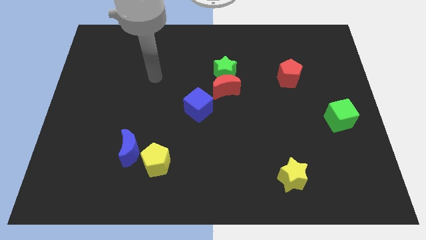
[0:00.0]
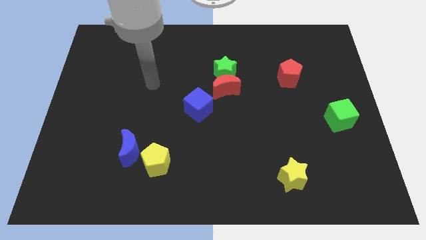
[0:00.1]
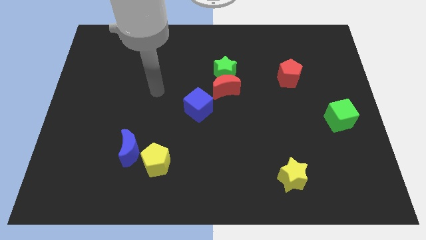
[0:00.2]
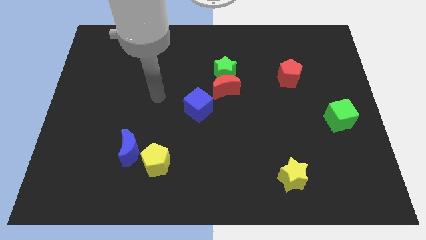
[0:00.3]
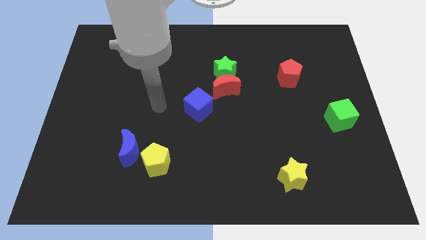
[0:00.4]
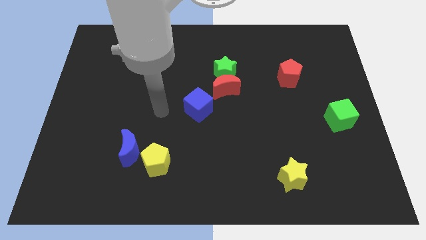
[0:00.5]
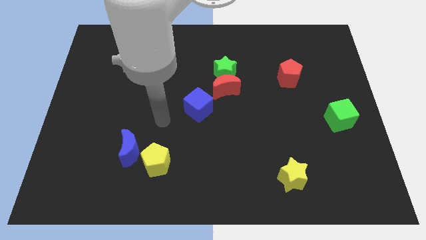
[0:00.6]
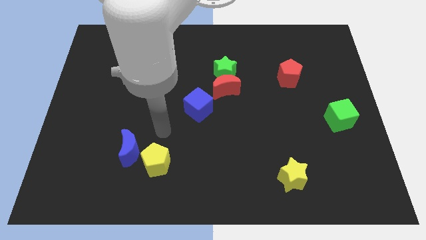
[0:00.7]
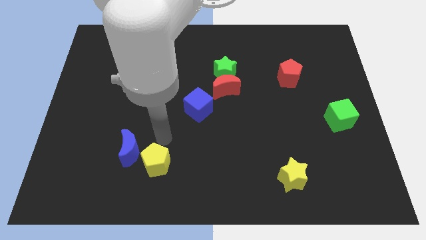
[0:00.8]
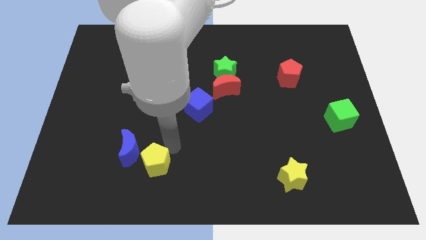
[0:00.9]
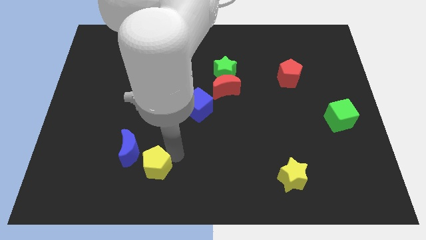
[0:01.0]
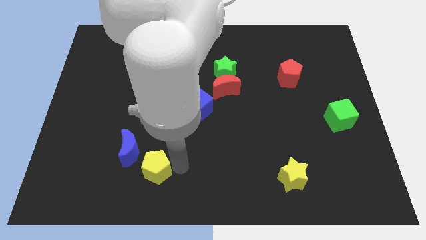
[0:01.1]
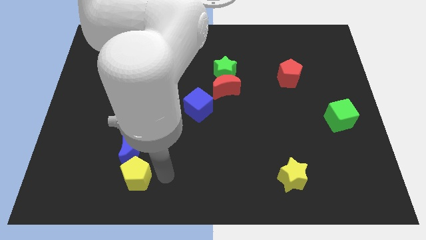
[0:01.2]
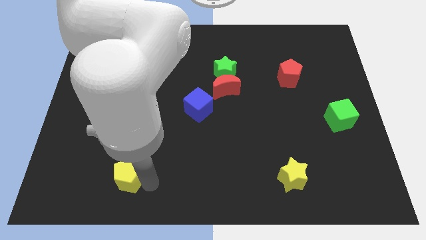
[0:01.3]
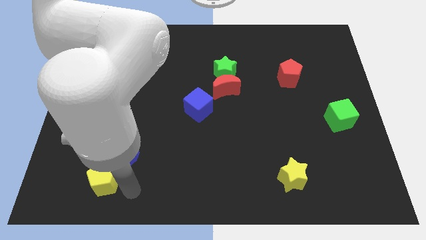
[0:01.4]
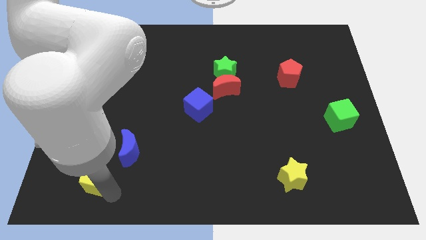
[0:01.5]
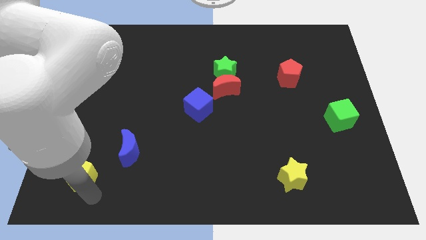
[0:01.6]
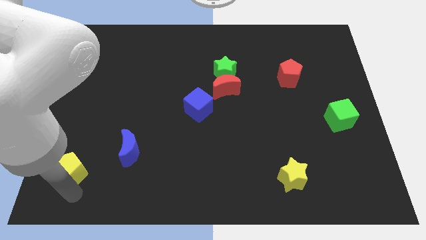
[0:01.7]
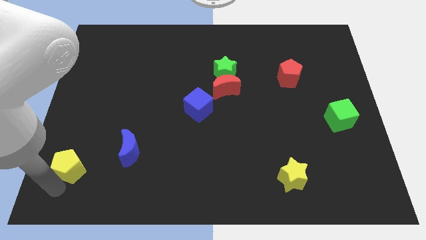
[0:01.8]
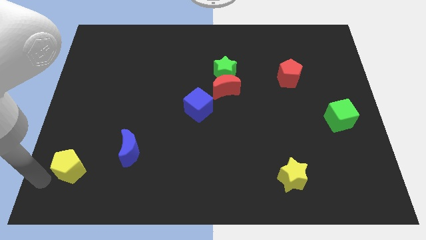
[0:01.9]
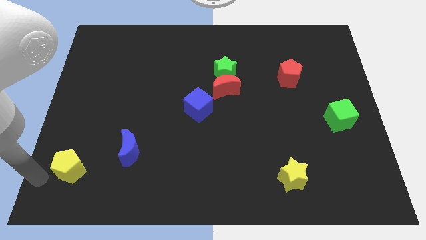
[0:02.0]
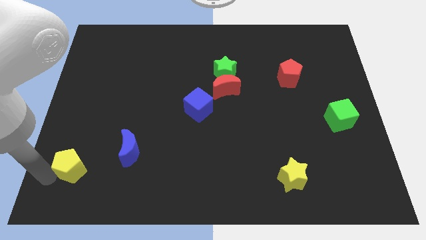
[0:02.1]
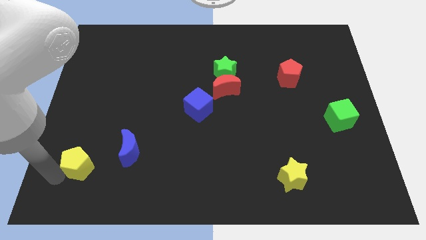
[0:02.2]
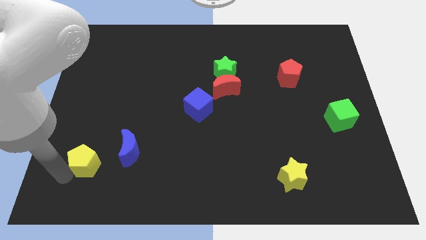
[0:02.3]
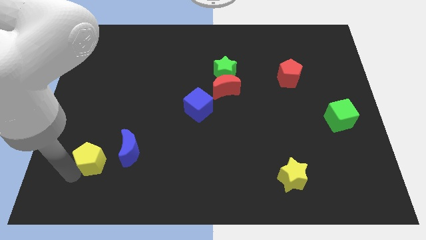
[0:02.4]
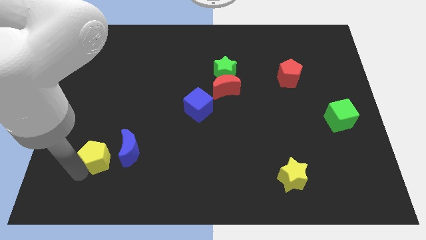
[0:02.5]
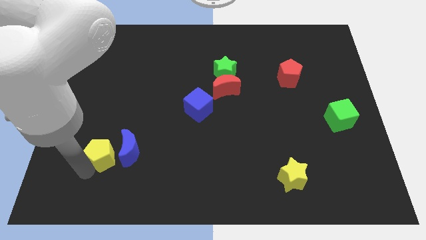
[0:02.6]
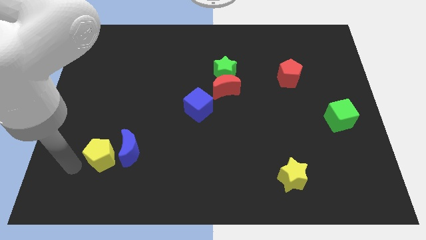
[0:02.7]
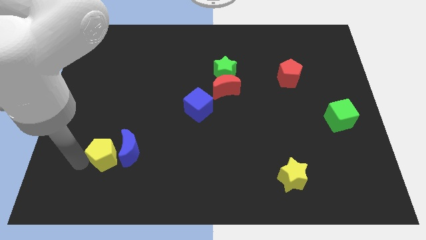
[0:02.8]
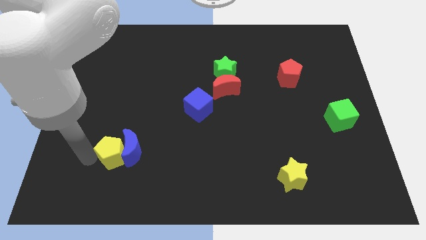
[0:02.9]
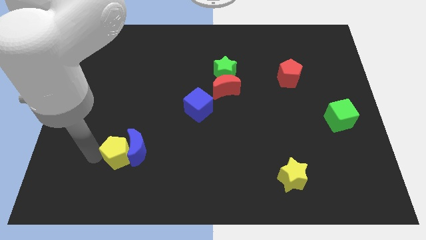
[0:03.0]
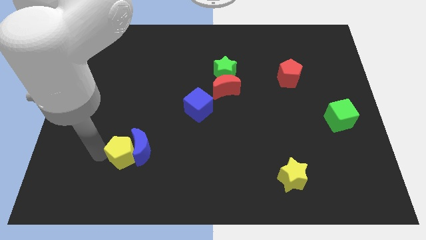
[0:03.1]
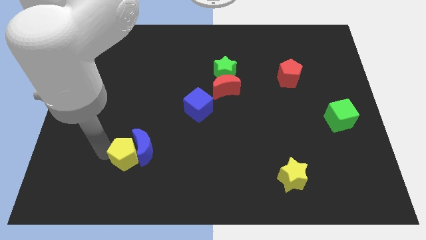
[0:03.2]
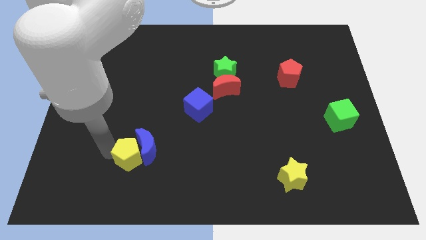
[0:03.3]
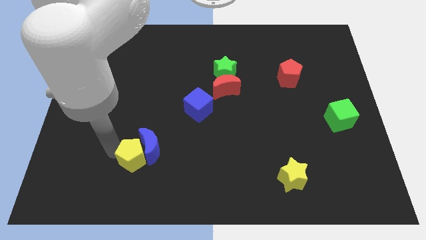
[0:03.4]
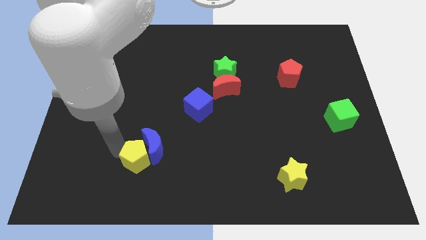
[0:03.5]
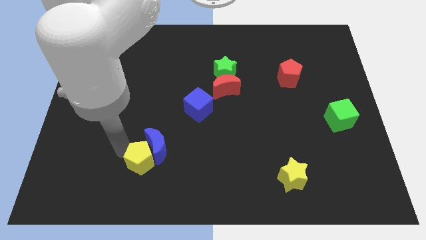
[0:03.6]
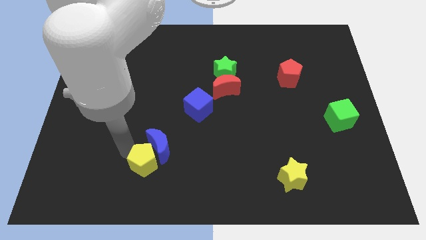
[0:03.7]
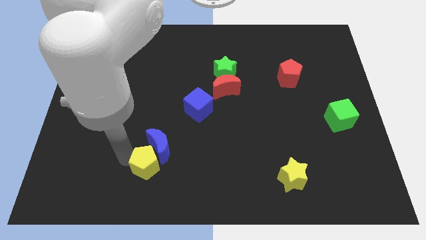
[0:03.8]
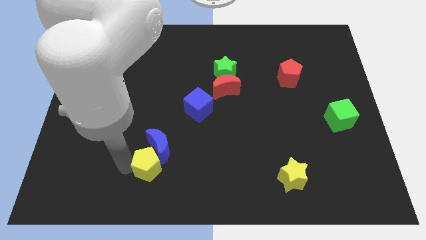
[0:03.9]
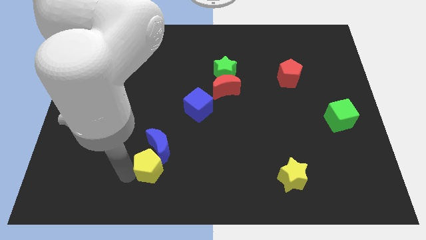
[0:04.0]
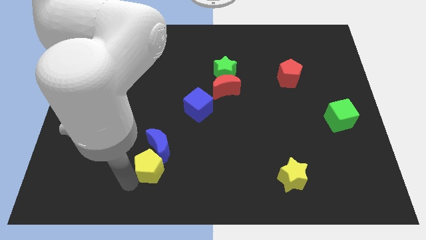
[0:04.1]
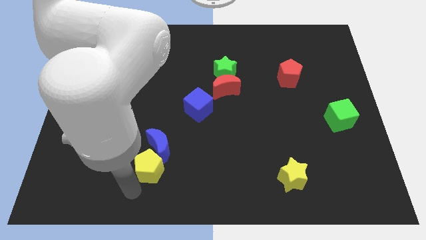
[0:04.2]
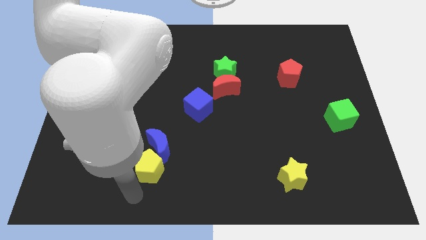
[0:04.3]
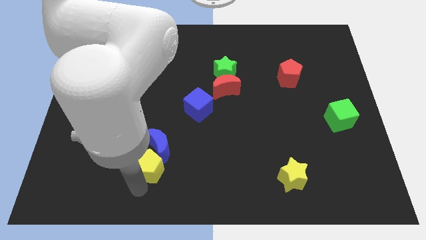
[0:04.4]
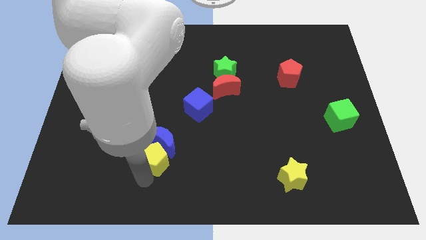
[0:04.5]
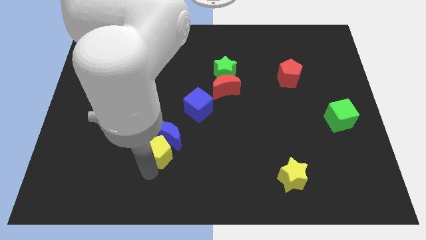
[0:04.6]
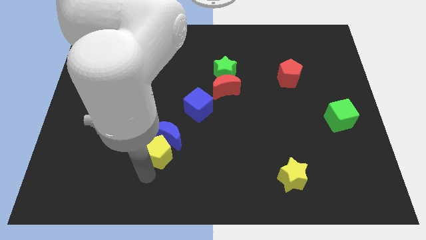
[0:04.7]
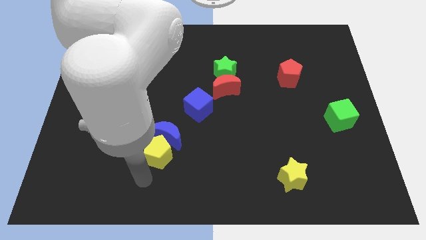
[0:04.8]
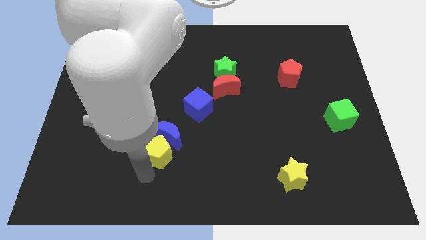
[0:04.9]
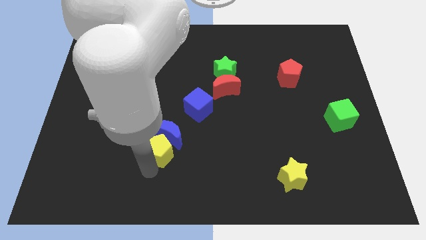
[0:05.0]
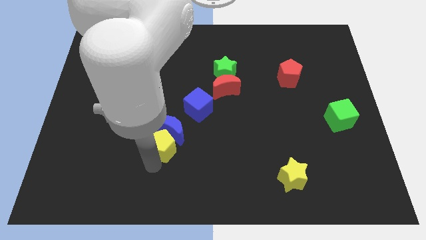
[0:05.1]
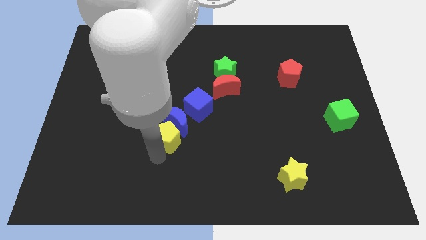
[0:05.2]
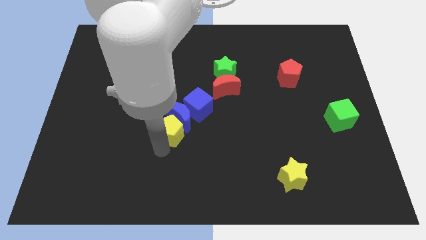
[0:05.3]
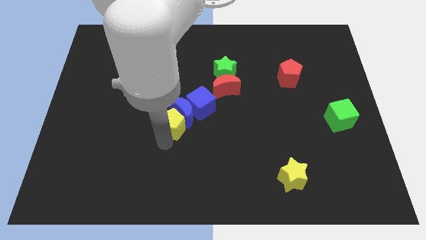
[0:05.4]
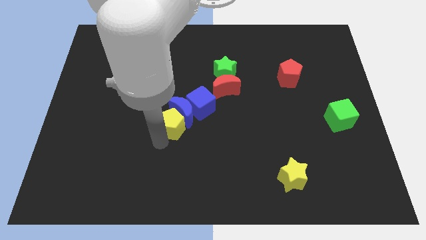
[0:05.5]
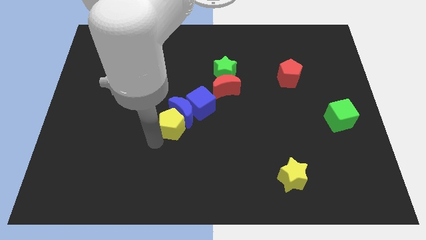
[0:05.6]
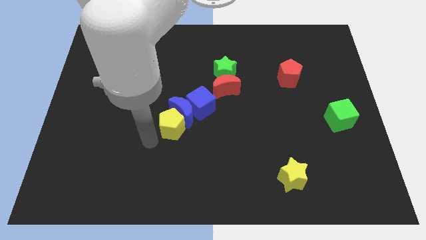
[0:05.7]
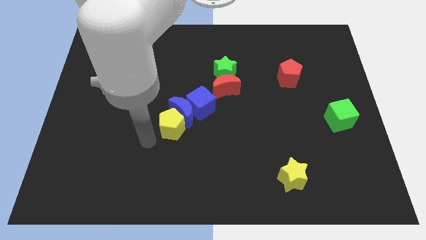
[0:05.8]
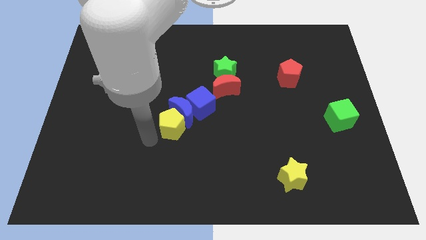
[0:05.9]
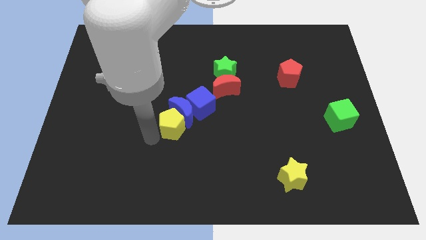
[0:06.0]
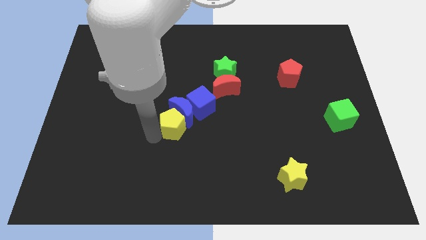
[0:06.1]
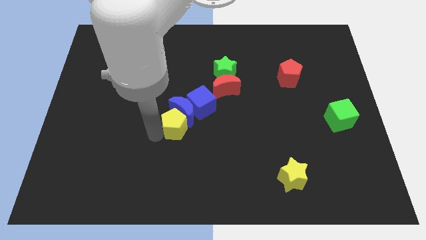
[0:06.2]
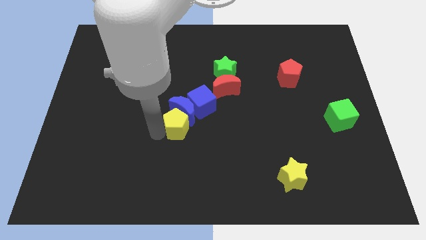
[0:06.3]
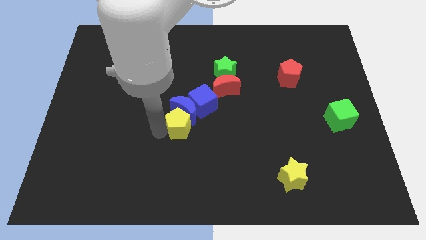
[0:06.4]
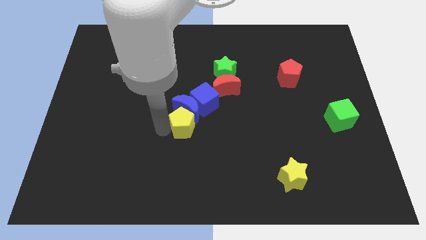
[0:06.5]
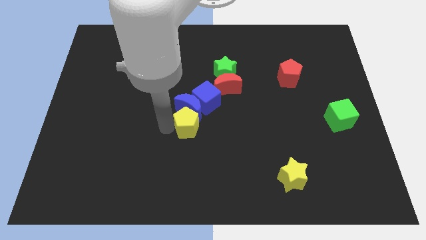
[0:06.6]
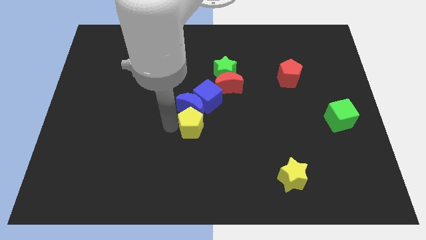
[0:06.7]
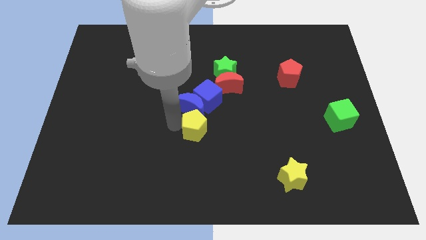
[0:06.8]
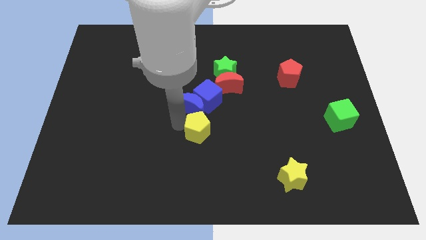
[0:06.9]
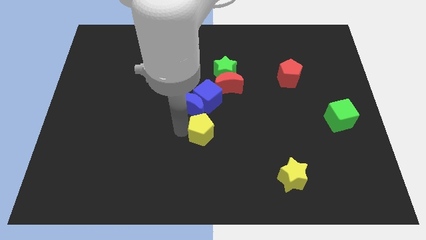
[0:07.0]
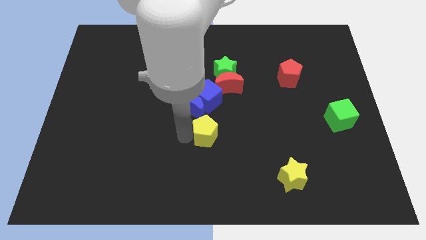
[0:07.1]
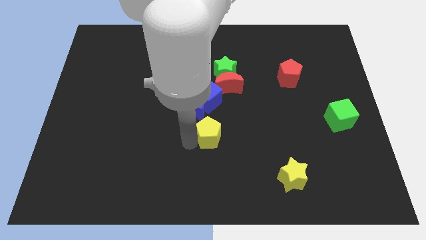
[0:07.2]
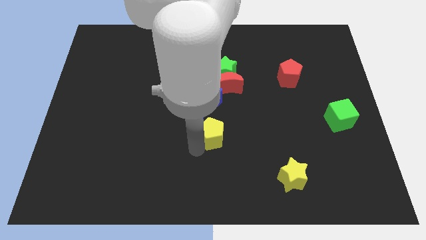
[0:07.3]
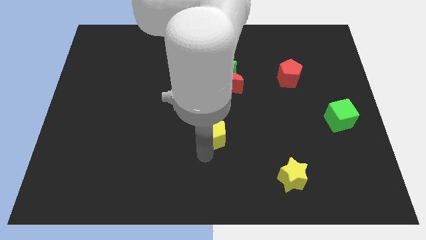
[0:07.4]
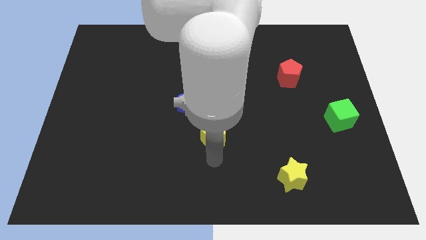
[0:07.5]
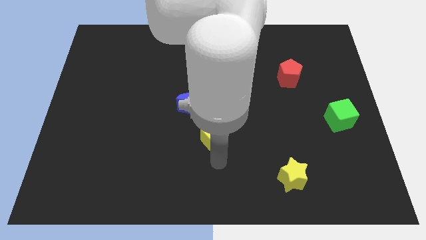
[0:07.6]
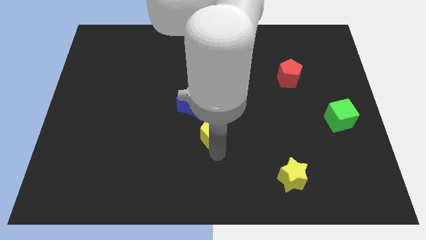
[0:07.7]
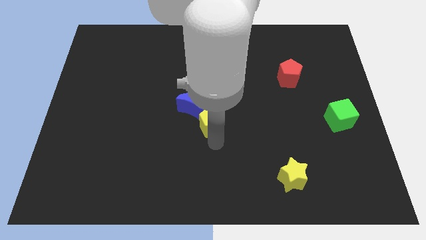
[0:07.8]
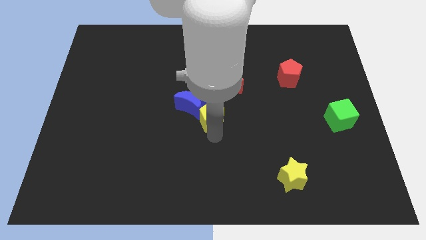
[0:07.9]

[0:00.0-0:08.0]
put the yellow pentagon next to the blue cube
